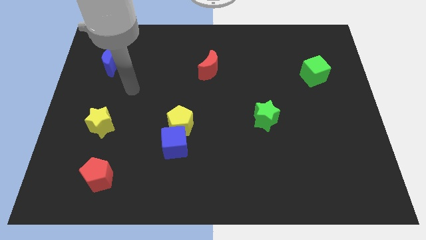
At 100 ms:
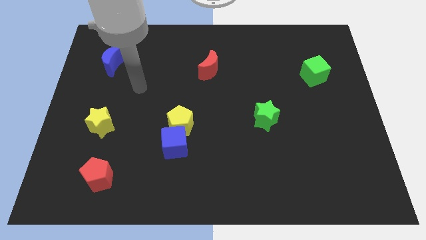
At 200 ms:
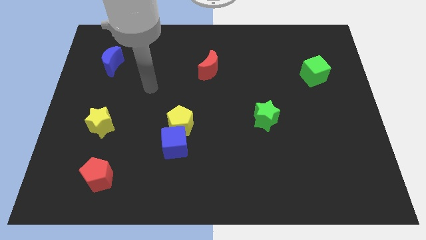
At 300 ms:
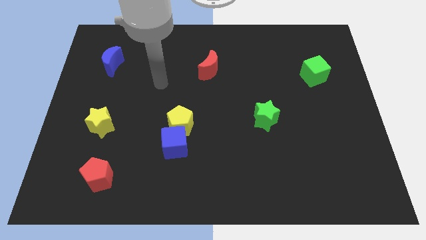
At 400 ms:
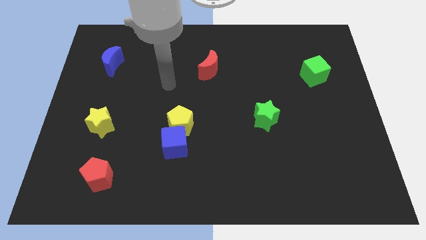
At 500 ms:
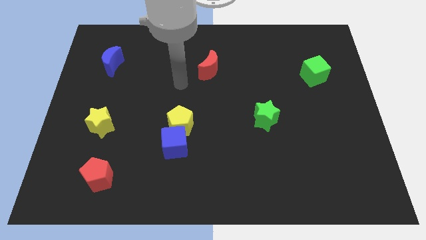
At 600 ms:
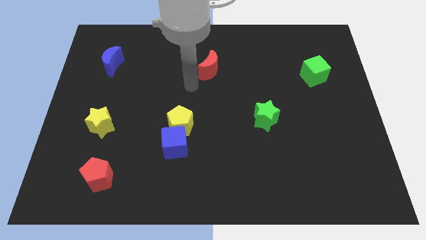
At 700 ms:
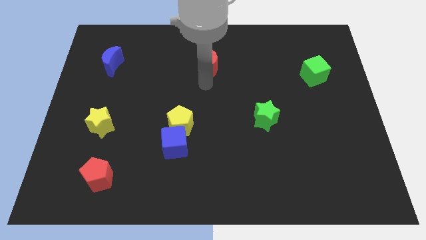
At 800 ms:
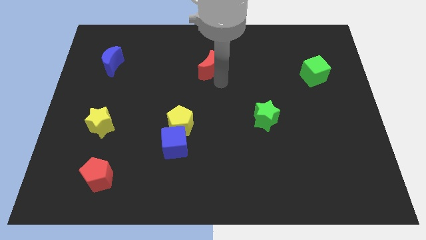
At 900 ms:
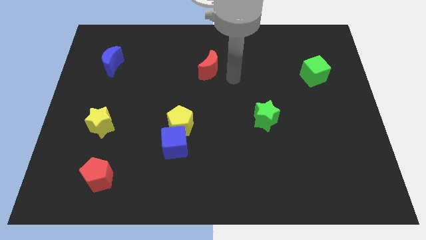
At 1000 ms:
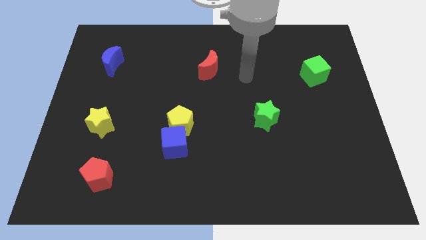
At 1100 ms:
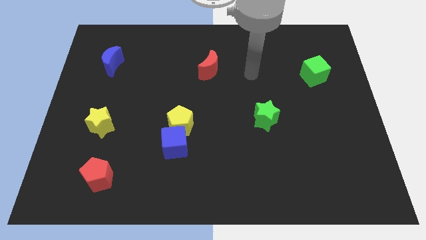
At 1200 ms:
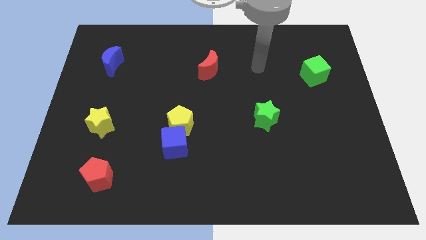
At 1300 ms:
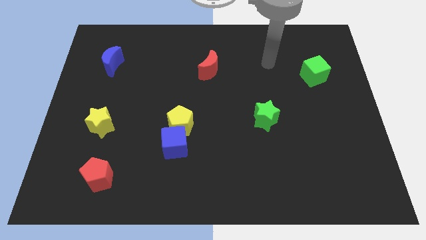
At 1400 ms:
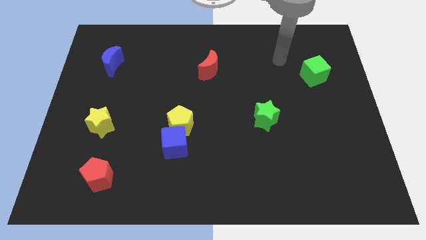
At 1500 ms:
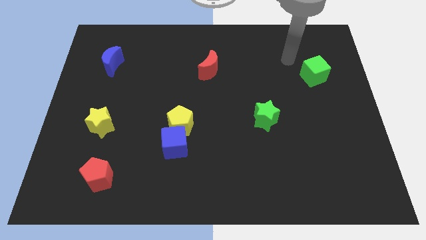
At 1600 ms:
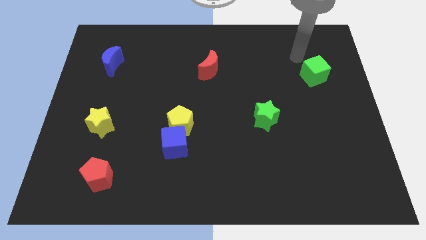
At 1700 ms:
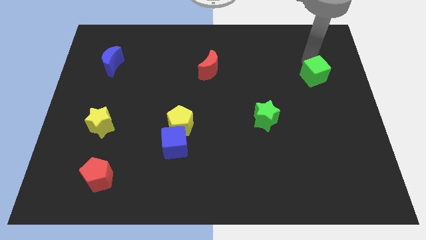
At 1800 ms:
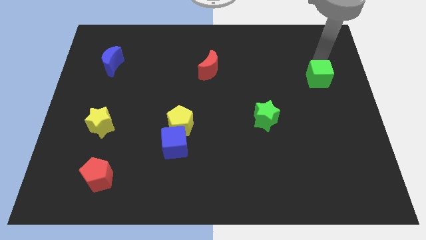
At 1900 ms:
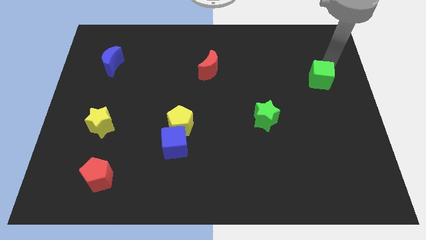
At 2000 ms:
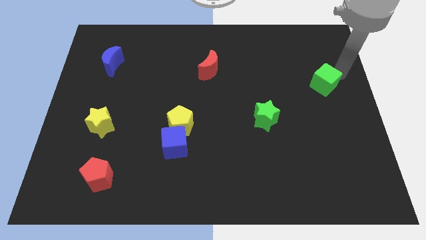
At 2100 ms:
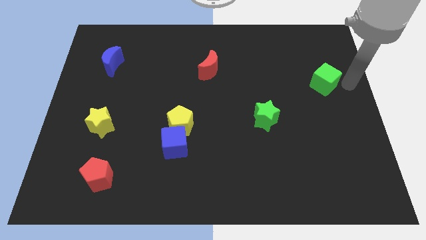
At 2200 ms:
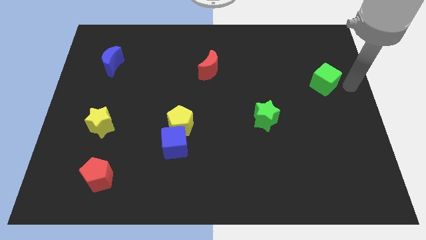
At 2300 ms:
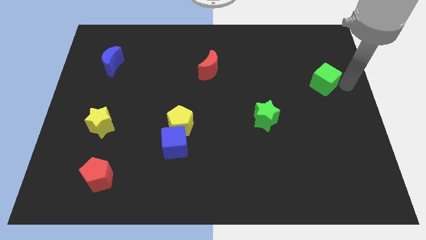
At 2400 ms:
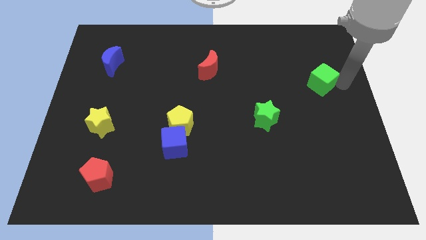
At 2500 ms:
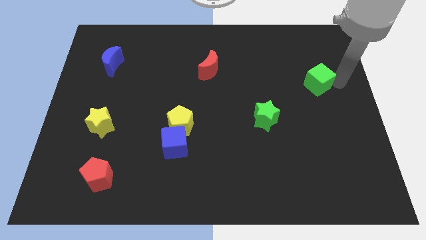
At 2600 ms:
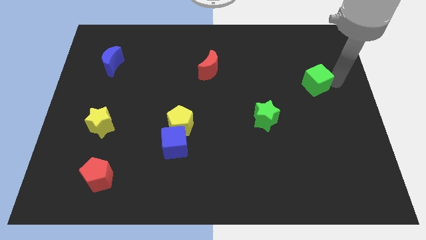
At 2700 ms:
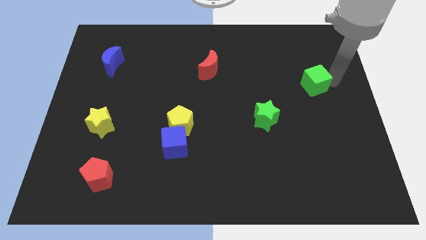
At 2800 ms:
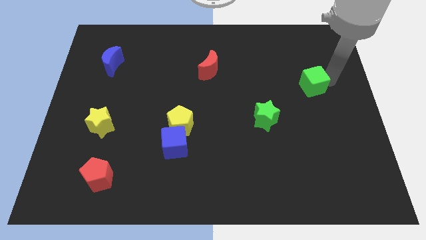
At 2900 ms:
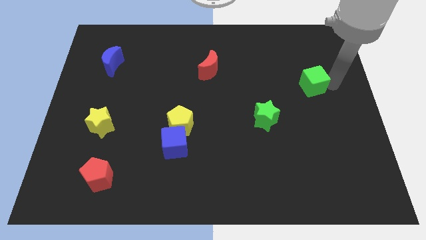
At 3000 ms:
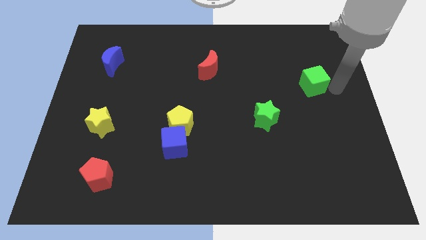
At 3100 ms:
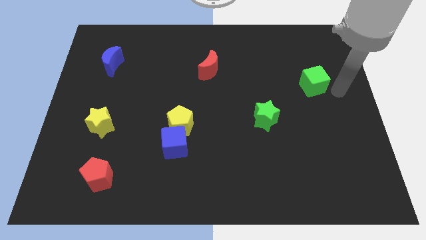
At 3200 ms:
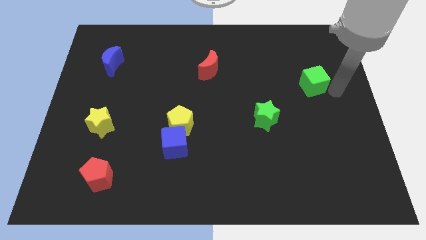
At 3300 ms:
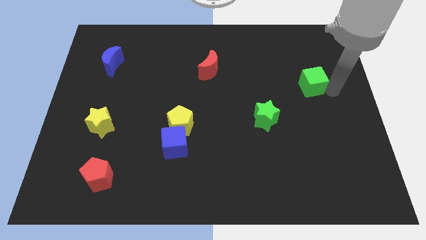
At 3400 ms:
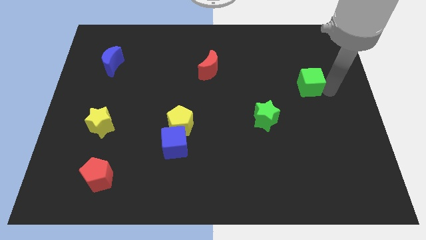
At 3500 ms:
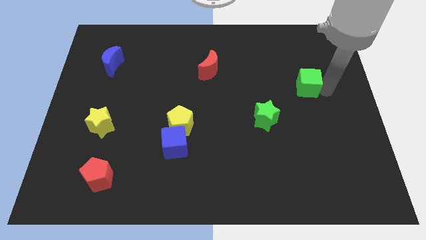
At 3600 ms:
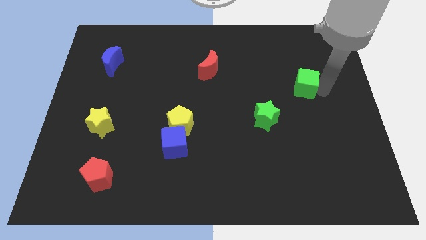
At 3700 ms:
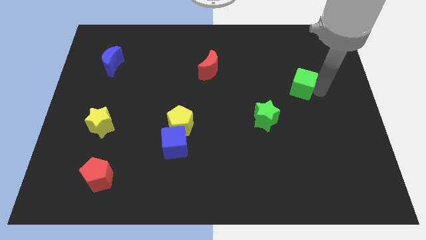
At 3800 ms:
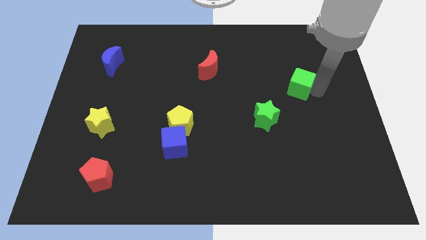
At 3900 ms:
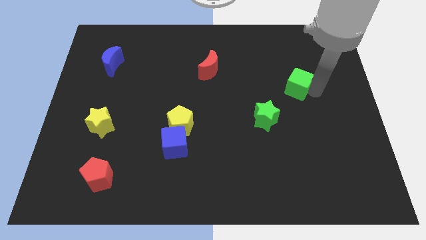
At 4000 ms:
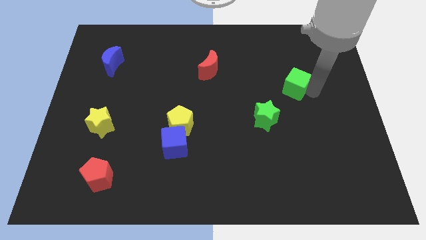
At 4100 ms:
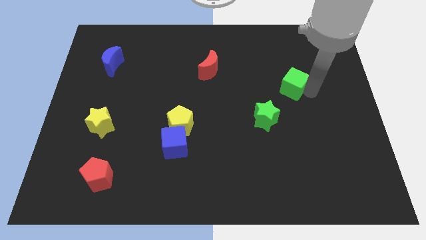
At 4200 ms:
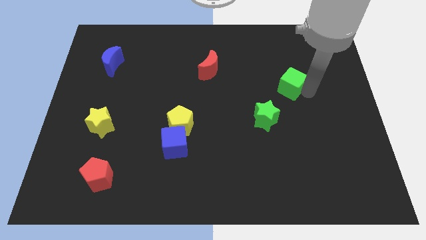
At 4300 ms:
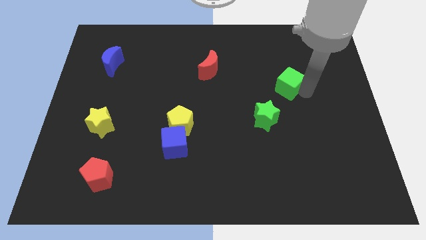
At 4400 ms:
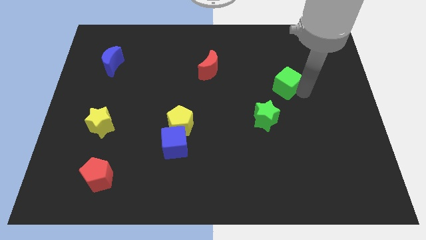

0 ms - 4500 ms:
slide the green cube somewhat to the left

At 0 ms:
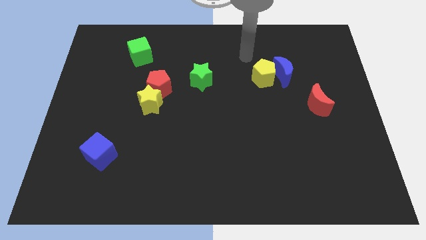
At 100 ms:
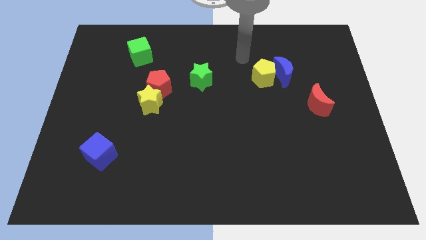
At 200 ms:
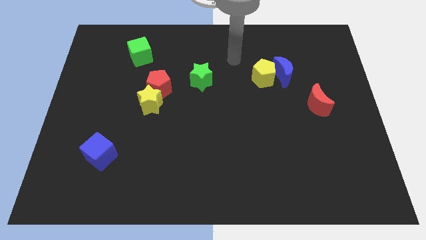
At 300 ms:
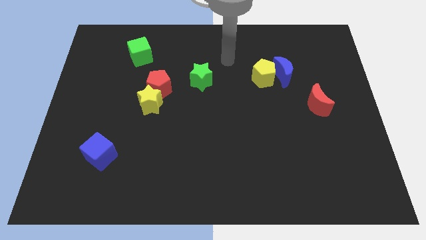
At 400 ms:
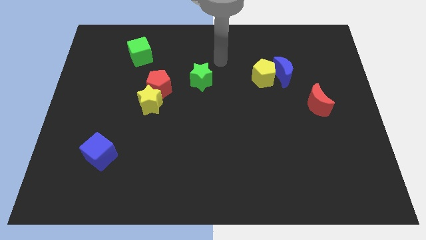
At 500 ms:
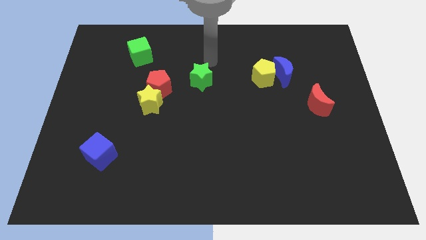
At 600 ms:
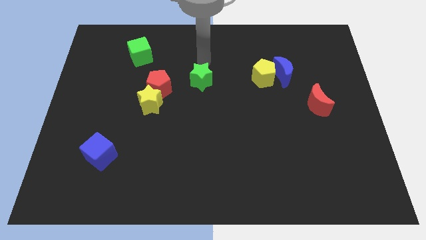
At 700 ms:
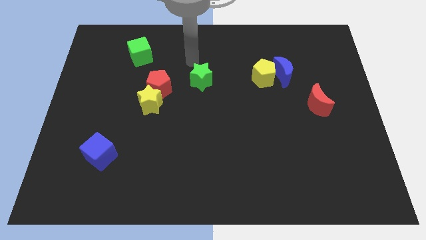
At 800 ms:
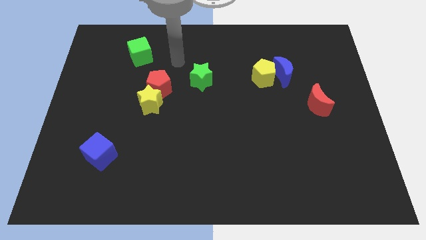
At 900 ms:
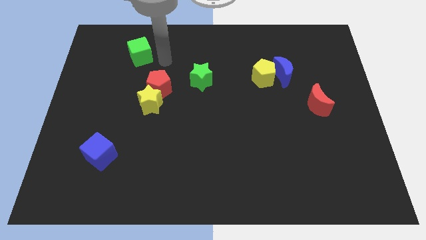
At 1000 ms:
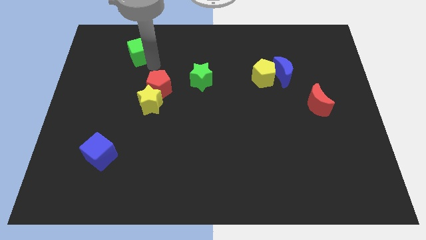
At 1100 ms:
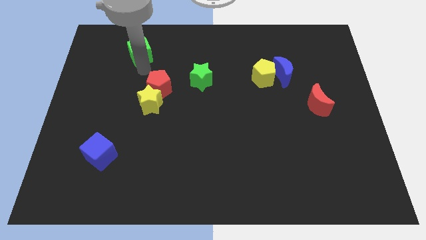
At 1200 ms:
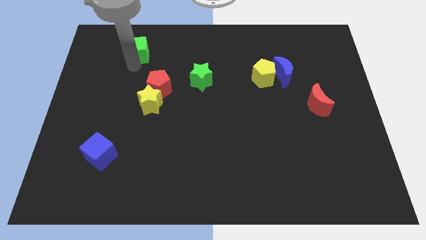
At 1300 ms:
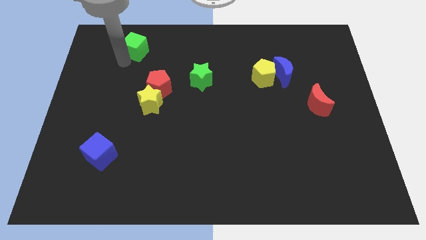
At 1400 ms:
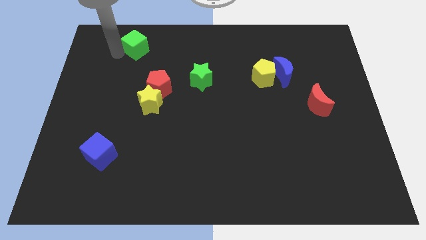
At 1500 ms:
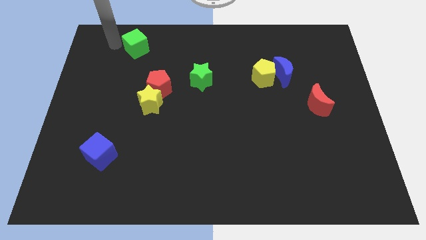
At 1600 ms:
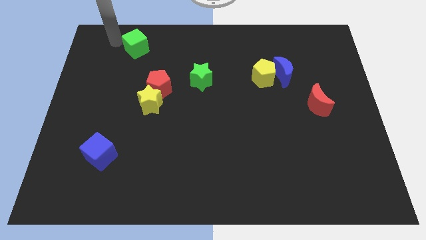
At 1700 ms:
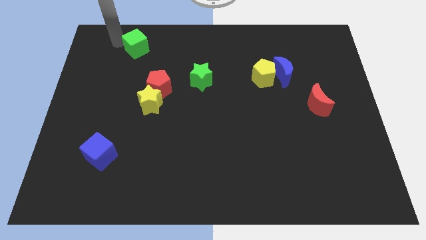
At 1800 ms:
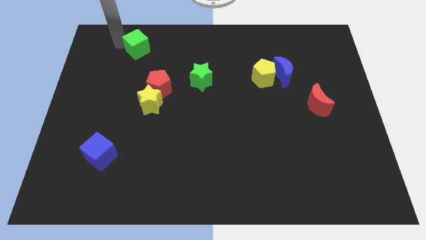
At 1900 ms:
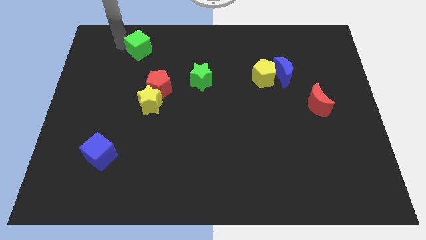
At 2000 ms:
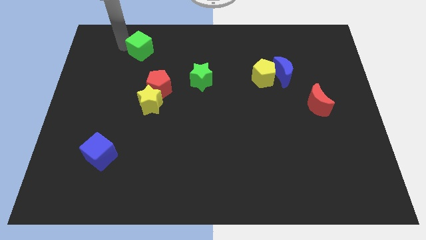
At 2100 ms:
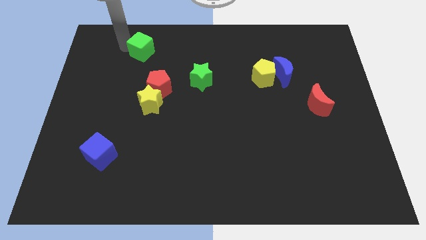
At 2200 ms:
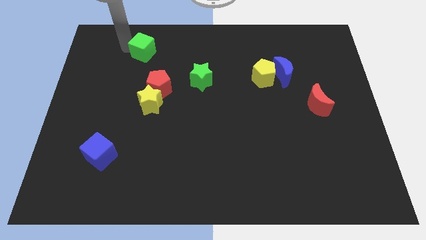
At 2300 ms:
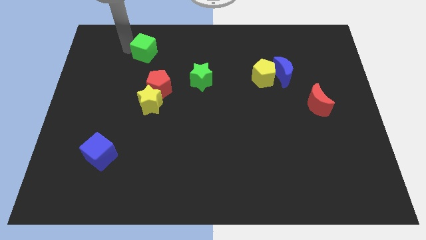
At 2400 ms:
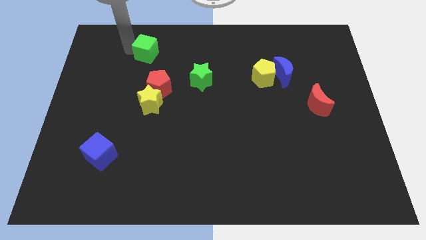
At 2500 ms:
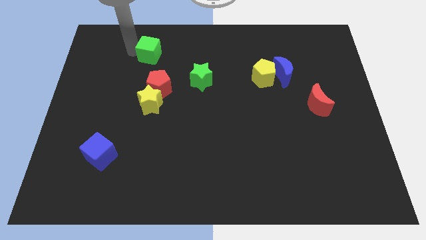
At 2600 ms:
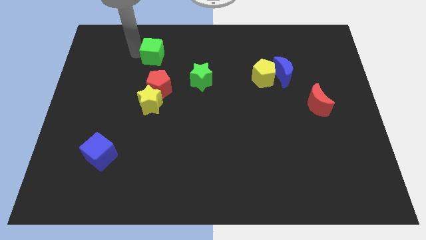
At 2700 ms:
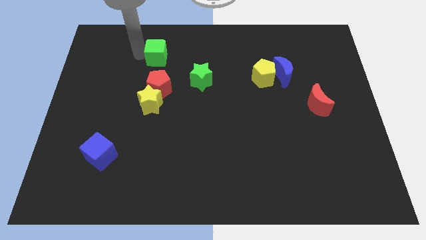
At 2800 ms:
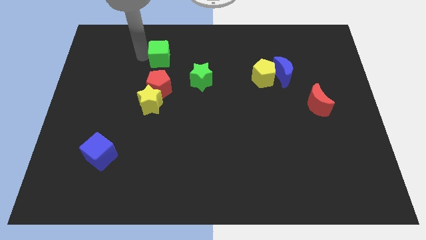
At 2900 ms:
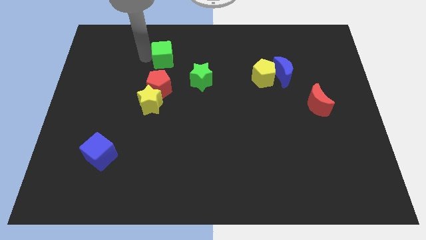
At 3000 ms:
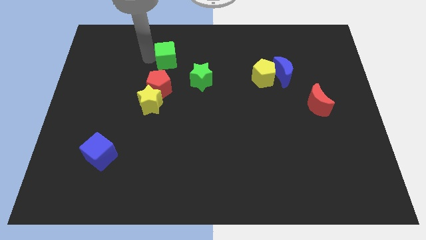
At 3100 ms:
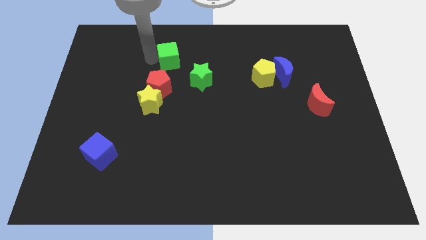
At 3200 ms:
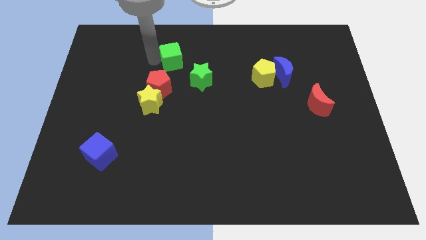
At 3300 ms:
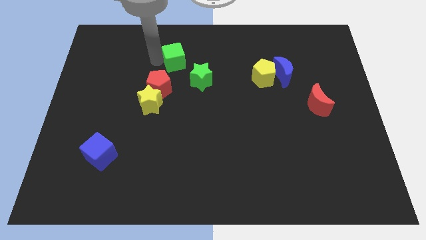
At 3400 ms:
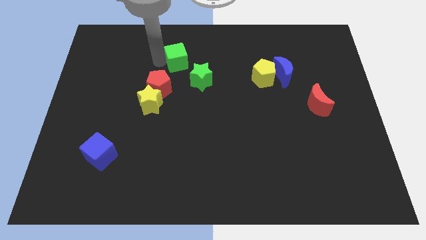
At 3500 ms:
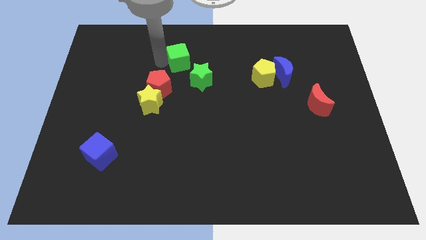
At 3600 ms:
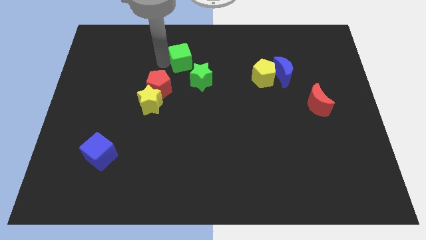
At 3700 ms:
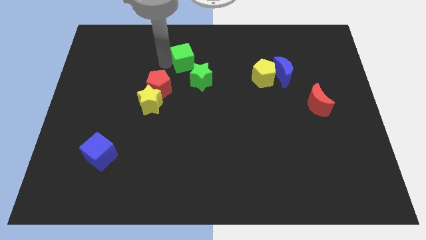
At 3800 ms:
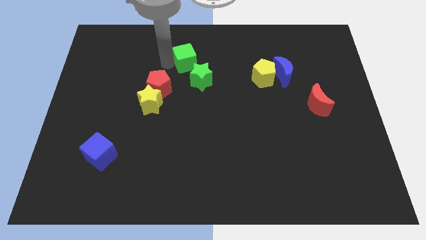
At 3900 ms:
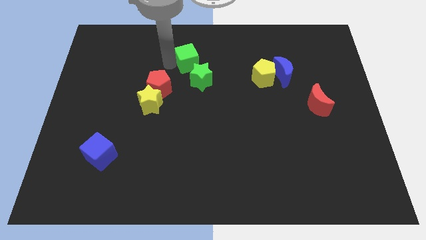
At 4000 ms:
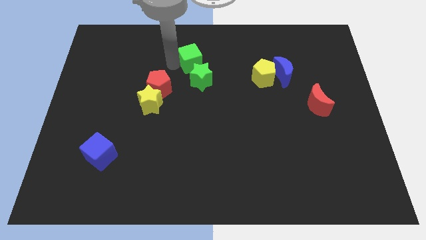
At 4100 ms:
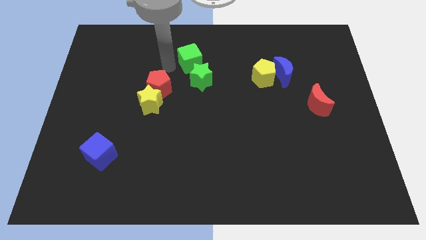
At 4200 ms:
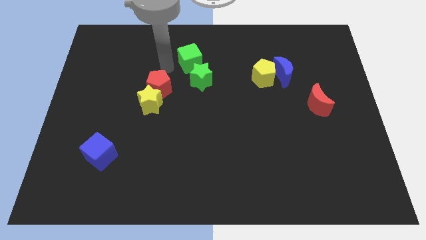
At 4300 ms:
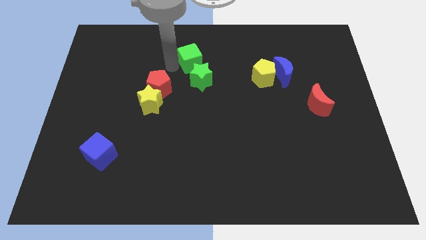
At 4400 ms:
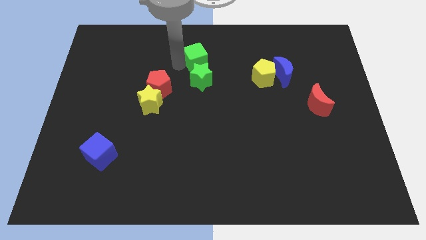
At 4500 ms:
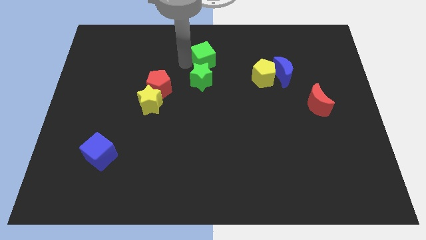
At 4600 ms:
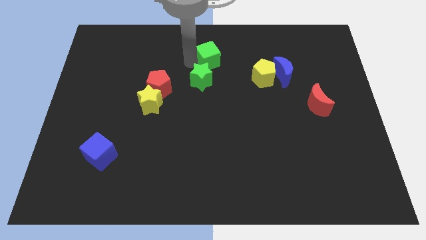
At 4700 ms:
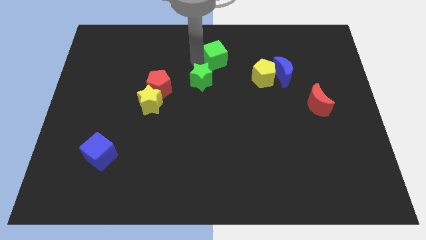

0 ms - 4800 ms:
move the green cube right
